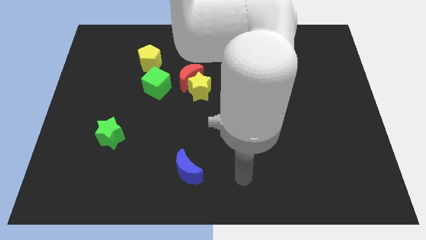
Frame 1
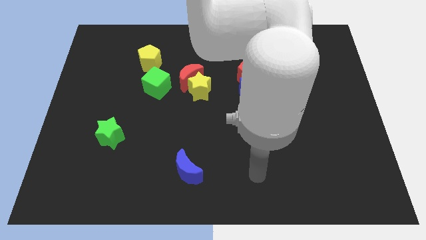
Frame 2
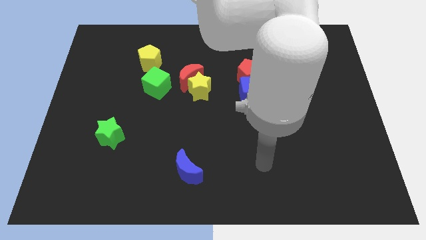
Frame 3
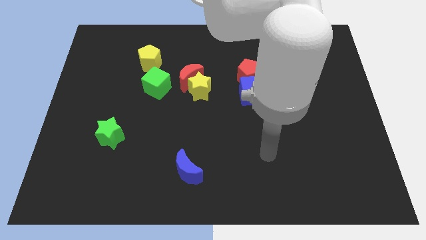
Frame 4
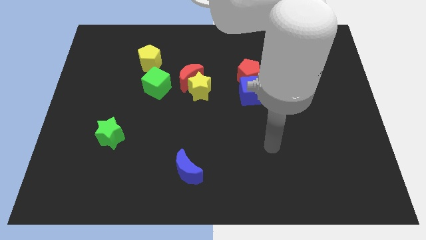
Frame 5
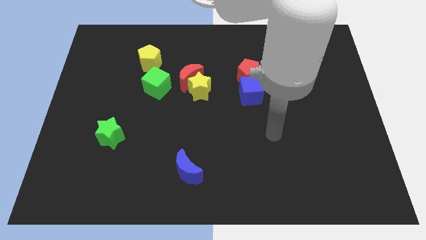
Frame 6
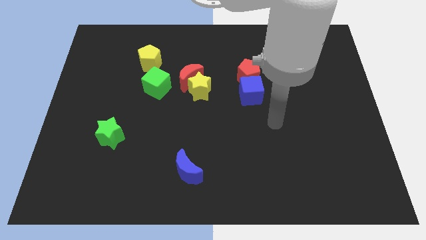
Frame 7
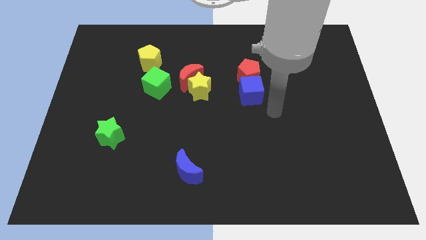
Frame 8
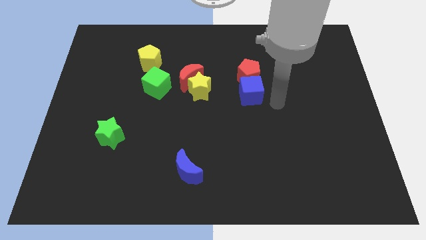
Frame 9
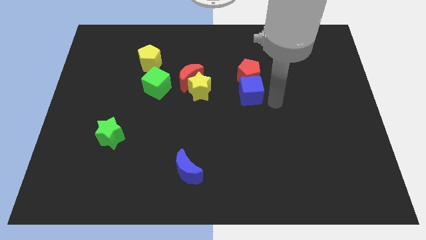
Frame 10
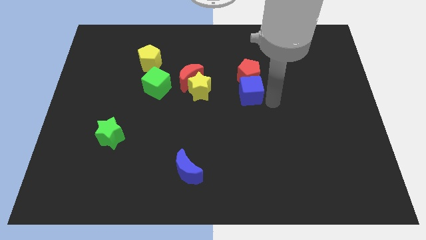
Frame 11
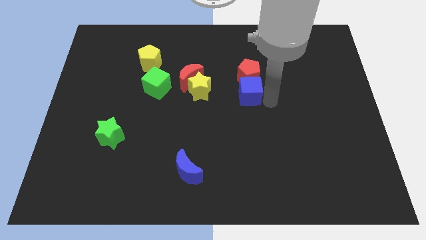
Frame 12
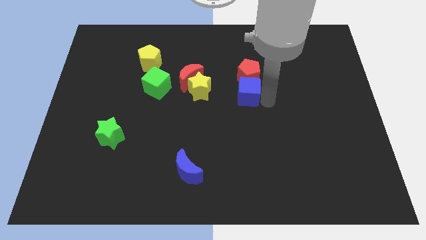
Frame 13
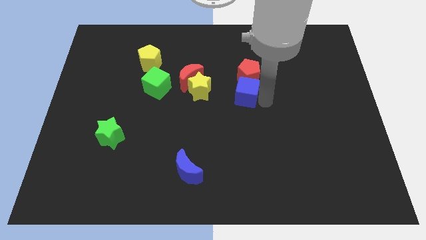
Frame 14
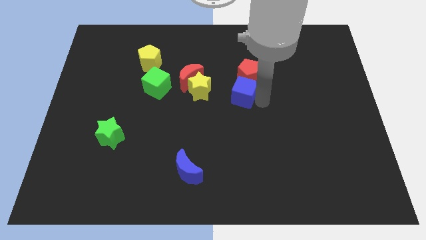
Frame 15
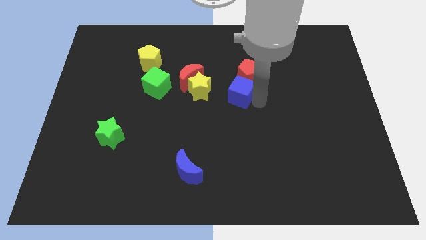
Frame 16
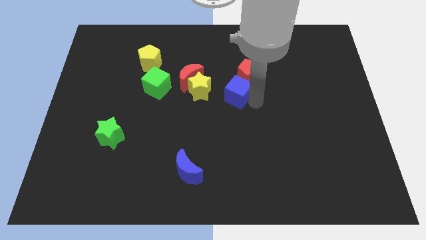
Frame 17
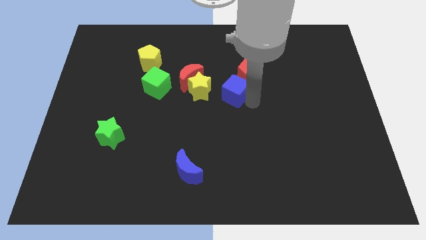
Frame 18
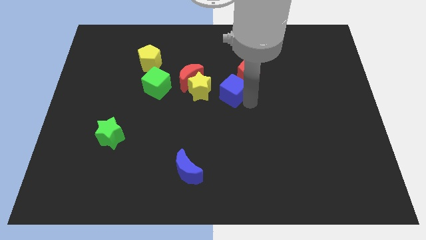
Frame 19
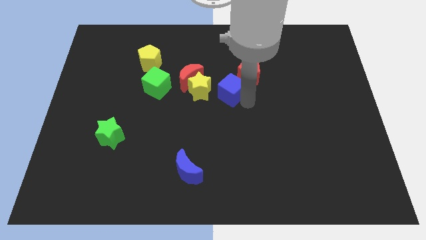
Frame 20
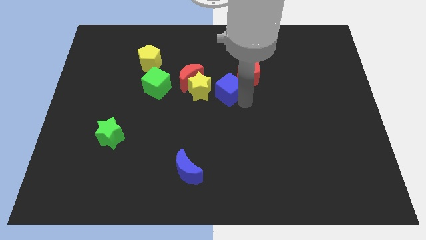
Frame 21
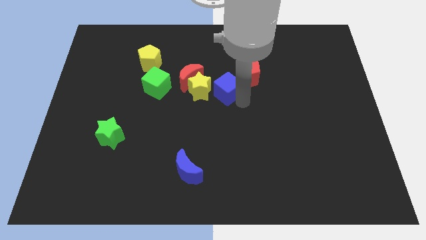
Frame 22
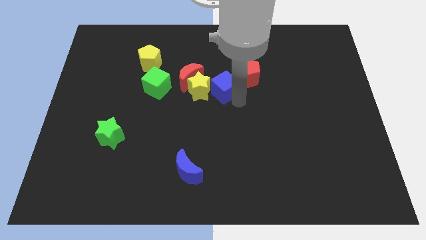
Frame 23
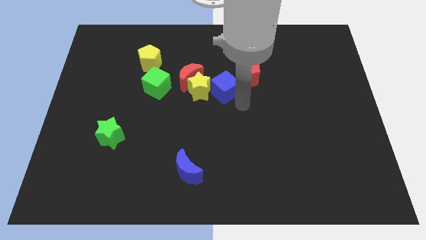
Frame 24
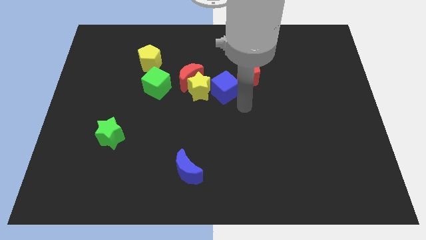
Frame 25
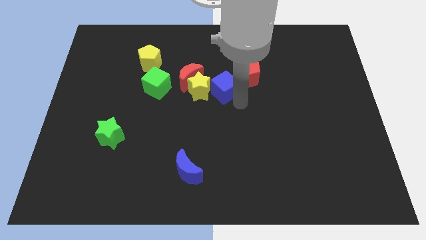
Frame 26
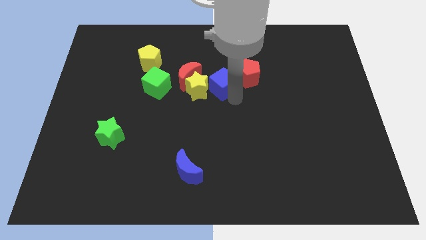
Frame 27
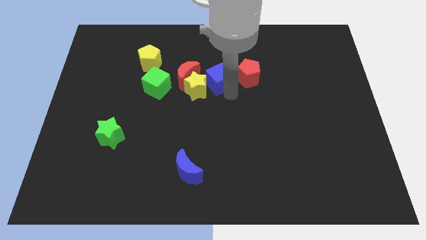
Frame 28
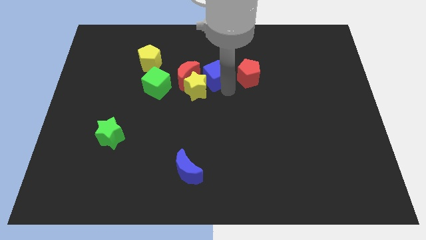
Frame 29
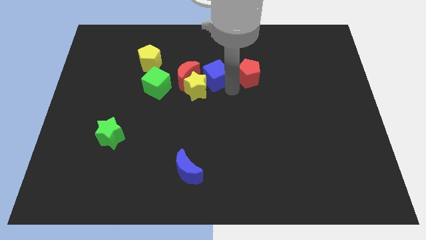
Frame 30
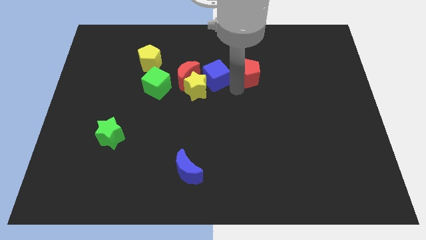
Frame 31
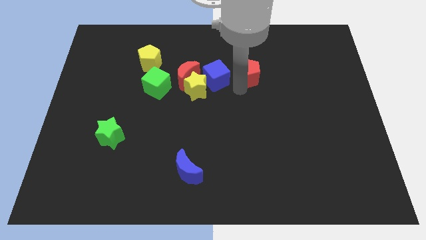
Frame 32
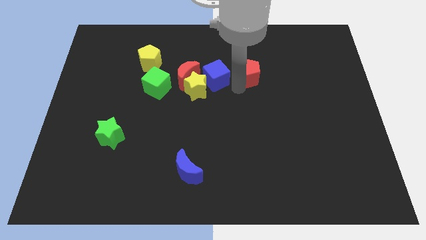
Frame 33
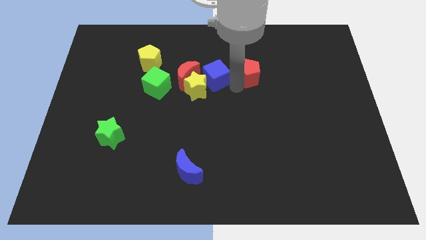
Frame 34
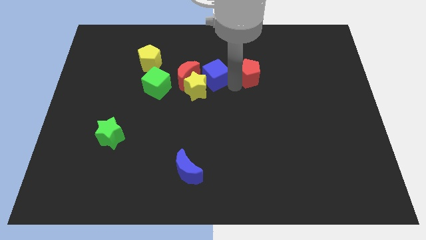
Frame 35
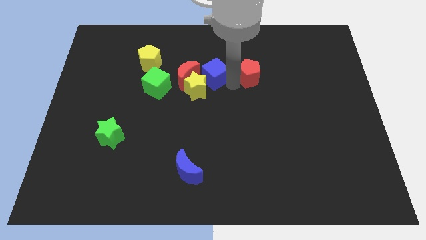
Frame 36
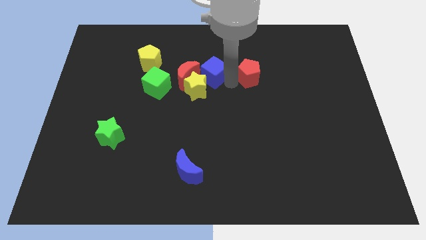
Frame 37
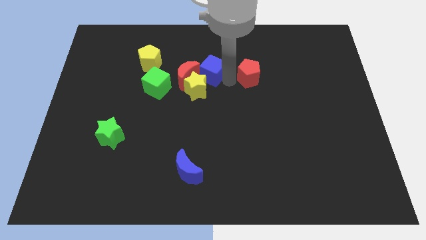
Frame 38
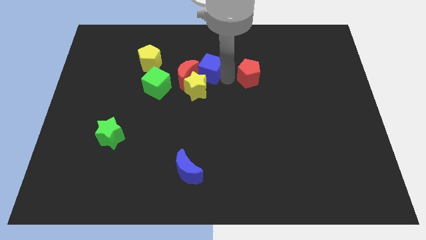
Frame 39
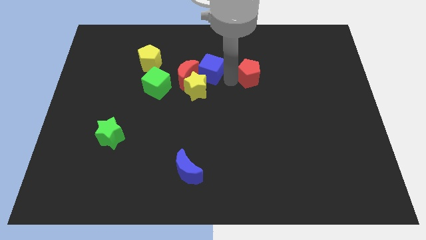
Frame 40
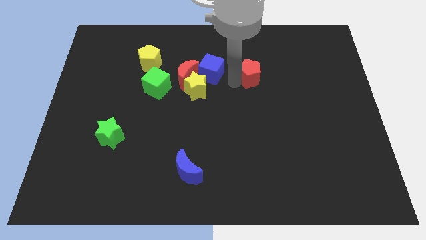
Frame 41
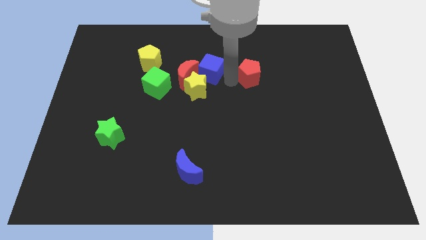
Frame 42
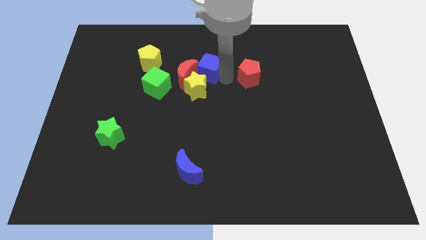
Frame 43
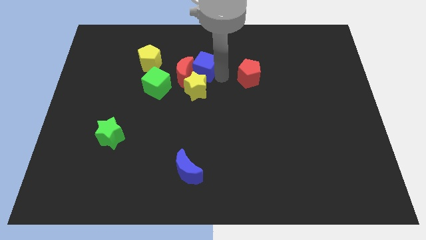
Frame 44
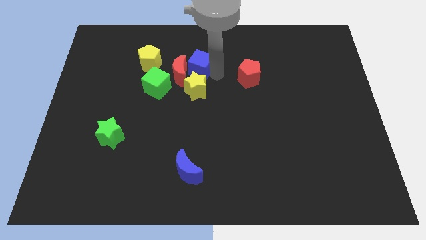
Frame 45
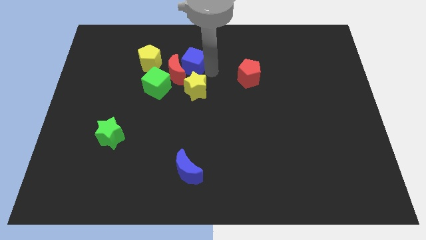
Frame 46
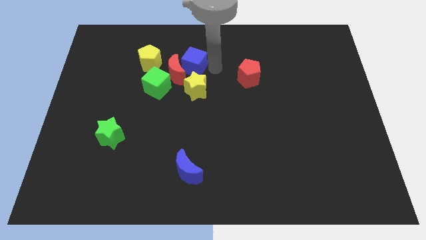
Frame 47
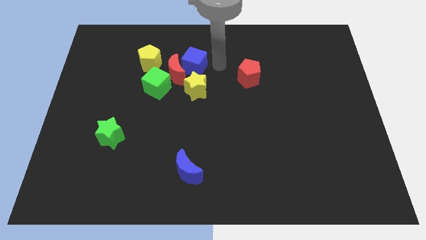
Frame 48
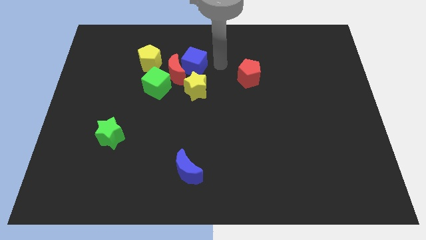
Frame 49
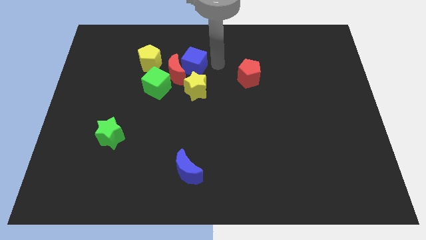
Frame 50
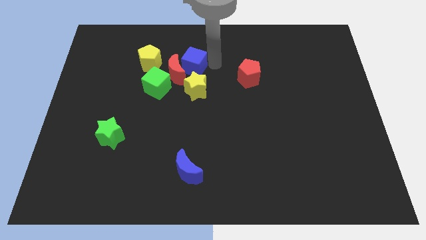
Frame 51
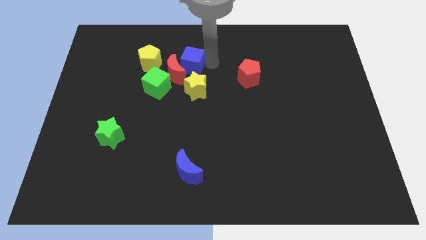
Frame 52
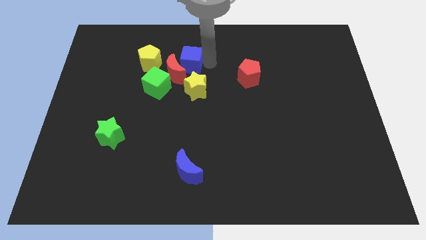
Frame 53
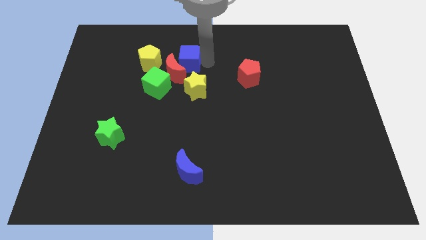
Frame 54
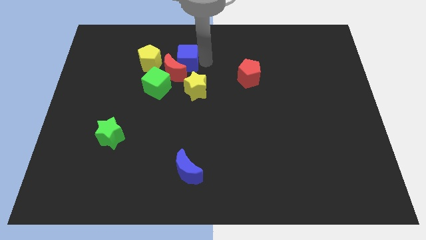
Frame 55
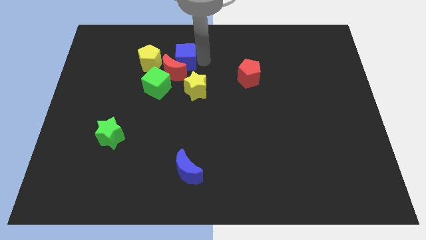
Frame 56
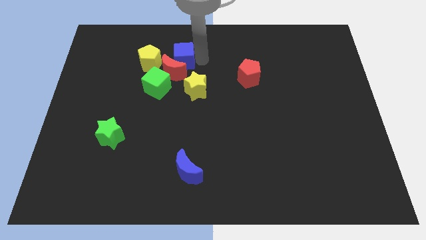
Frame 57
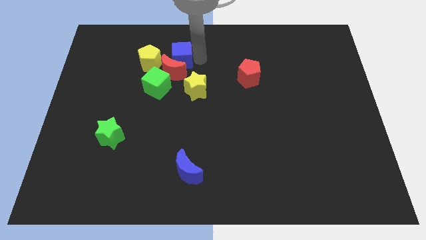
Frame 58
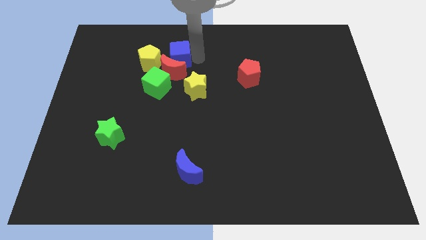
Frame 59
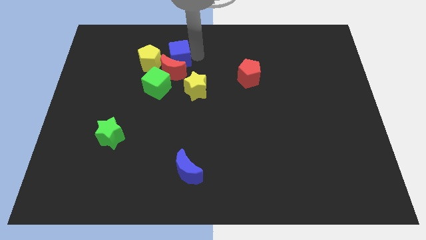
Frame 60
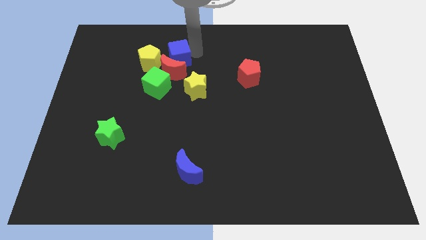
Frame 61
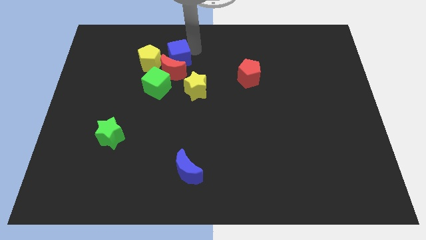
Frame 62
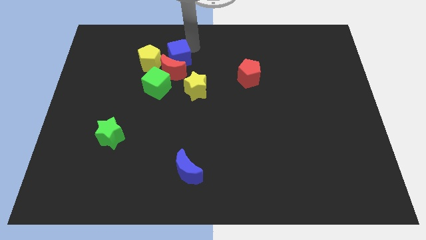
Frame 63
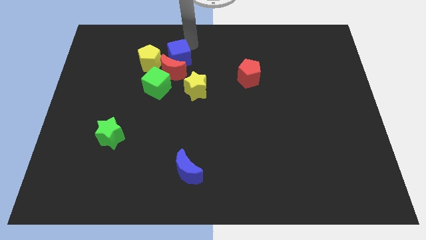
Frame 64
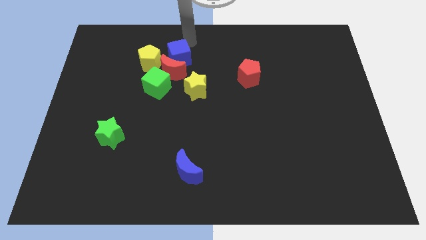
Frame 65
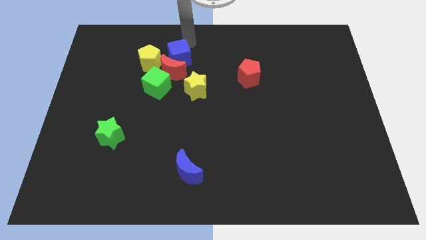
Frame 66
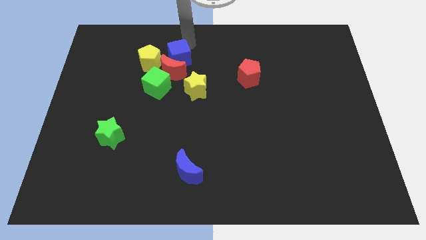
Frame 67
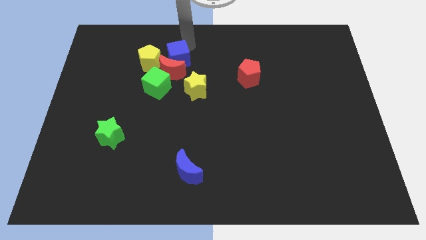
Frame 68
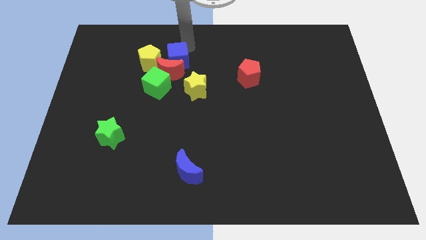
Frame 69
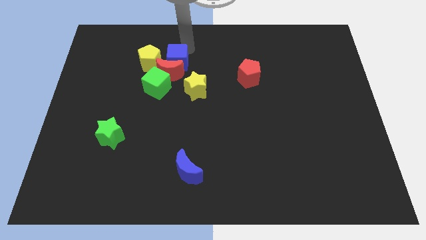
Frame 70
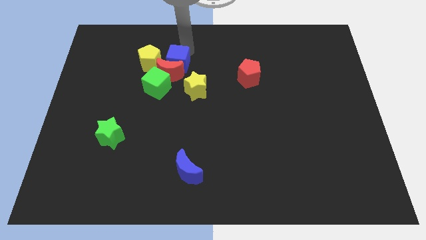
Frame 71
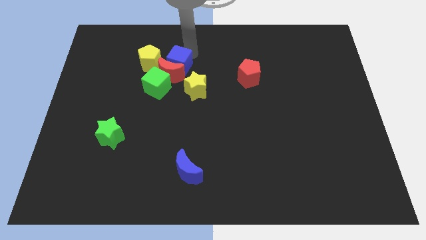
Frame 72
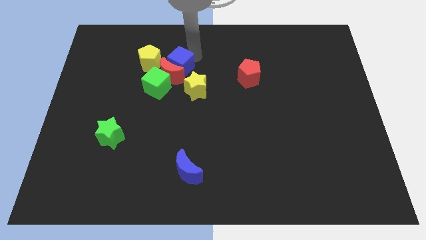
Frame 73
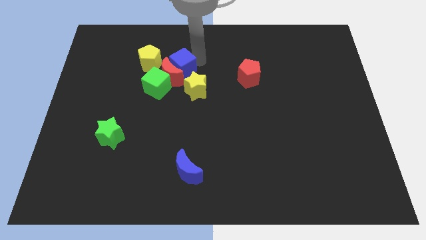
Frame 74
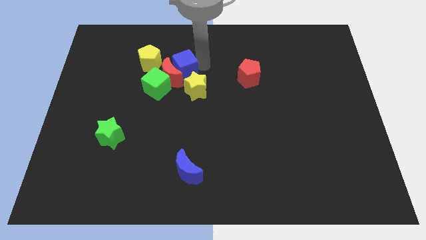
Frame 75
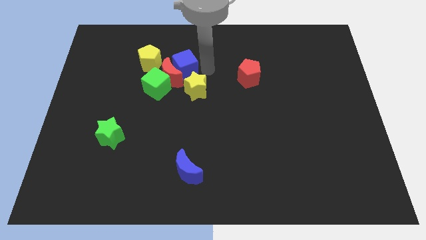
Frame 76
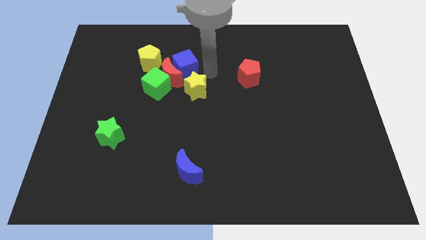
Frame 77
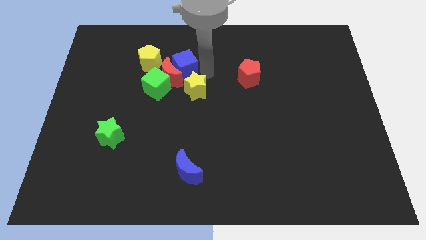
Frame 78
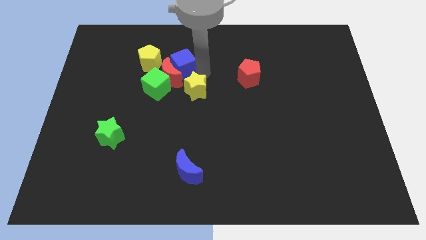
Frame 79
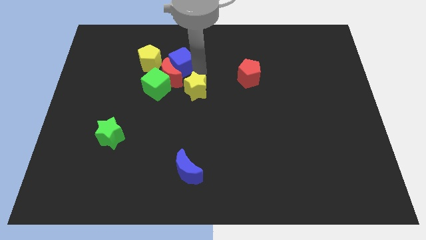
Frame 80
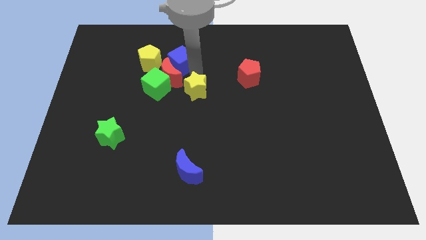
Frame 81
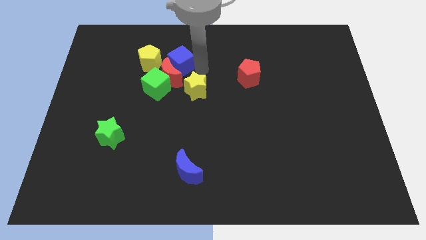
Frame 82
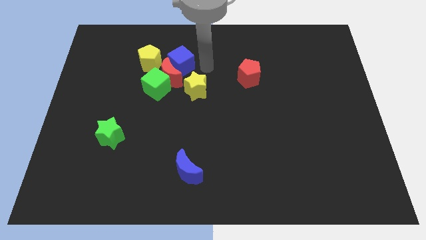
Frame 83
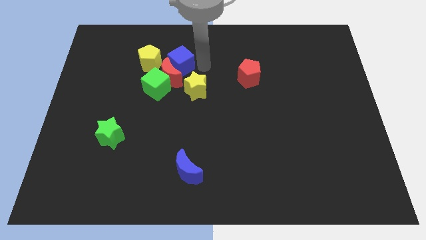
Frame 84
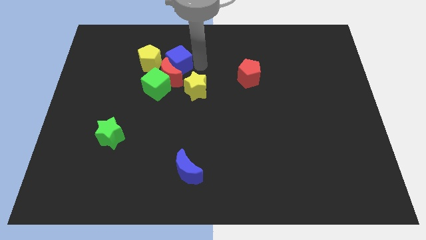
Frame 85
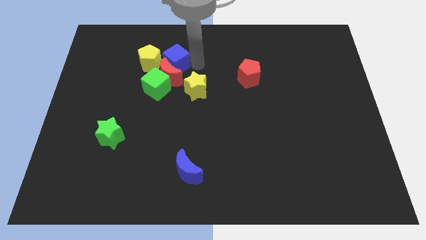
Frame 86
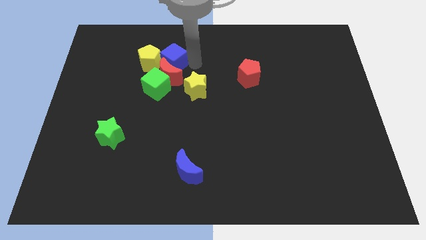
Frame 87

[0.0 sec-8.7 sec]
push the blue cube to the yellow pentagon
